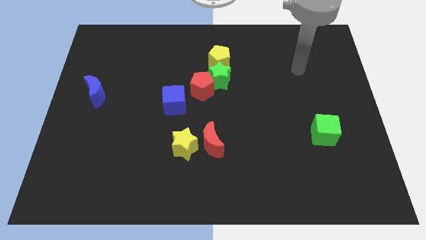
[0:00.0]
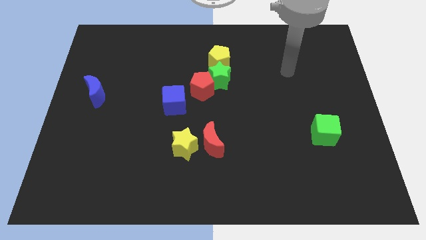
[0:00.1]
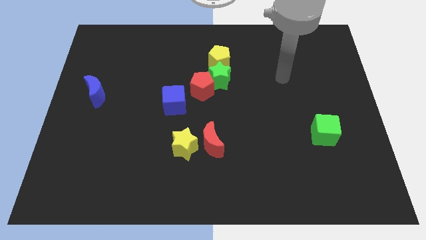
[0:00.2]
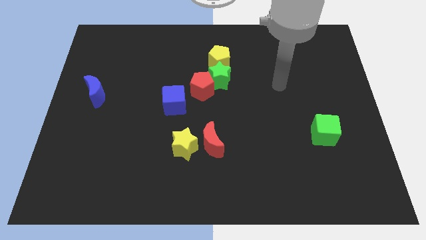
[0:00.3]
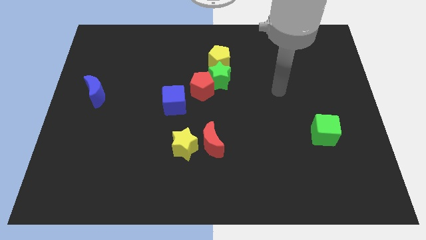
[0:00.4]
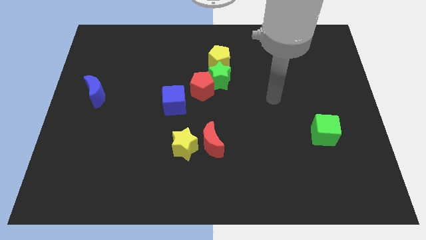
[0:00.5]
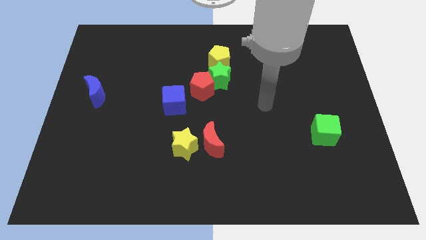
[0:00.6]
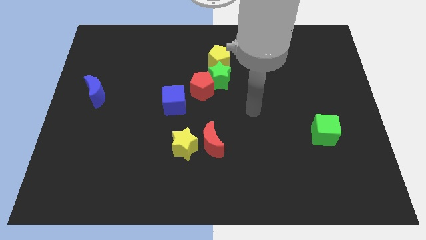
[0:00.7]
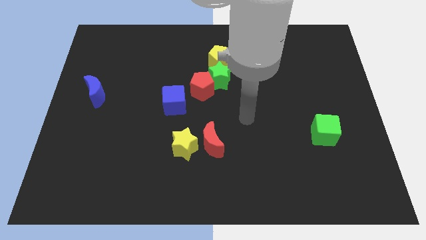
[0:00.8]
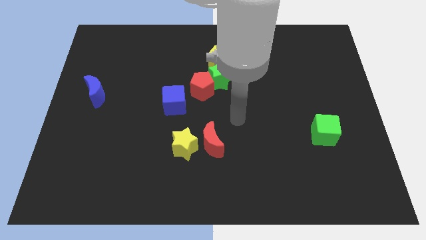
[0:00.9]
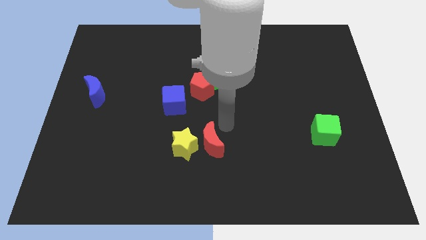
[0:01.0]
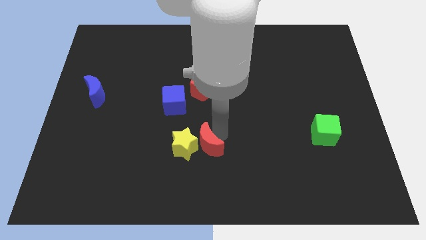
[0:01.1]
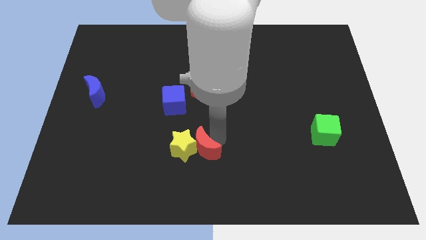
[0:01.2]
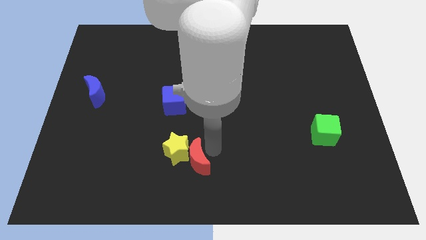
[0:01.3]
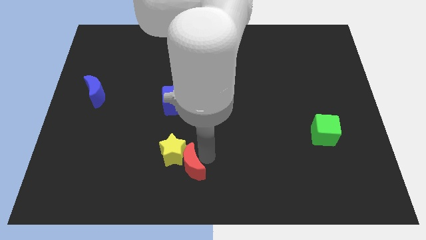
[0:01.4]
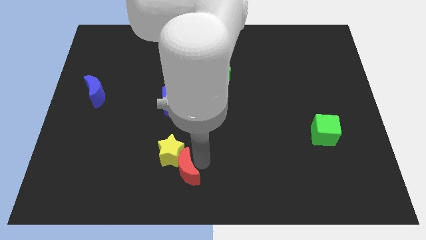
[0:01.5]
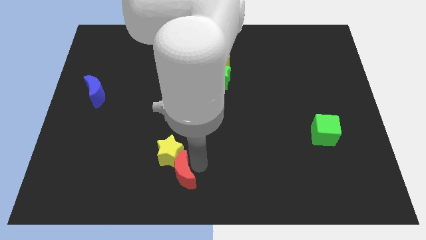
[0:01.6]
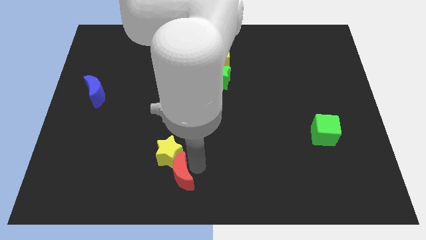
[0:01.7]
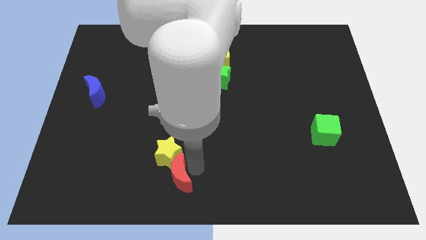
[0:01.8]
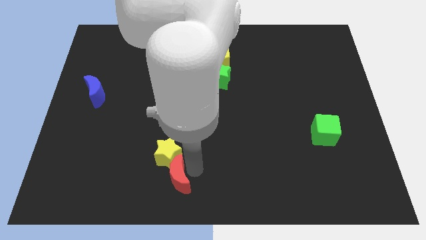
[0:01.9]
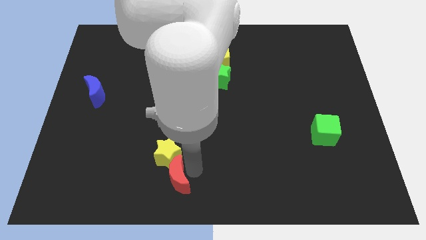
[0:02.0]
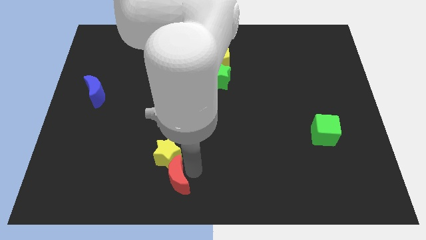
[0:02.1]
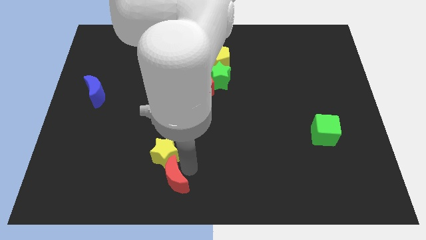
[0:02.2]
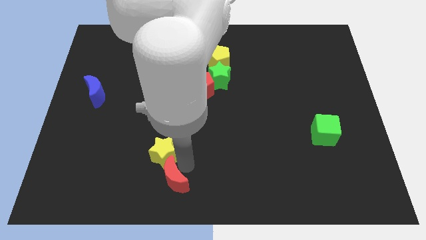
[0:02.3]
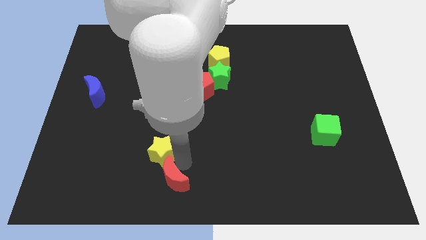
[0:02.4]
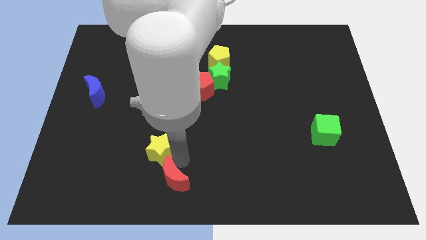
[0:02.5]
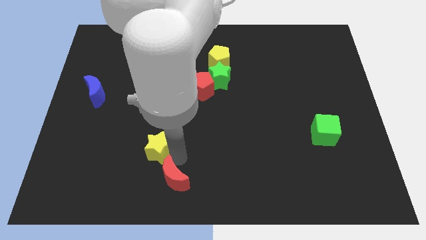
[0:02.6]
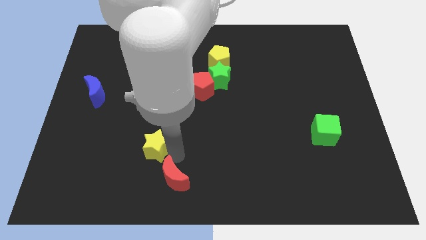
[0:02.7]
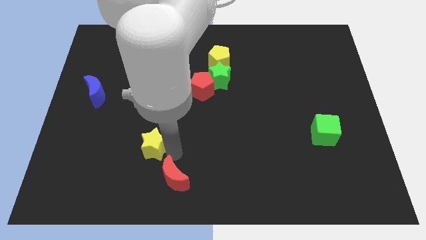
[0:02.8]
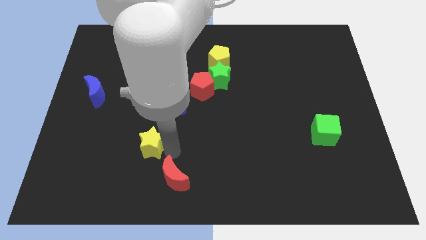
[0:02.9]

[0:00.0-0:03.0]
slide the yellow star a bit to the left

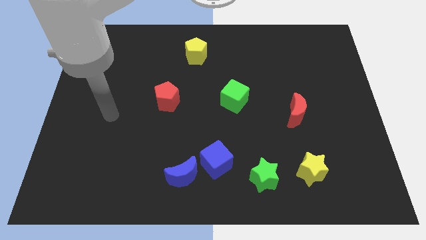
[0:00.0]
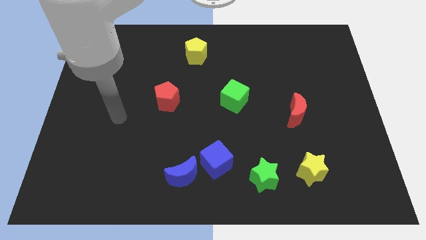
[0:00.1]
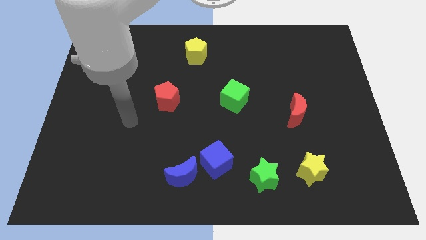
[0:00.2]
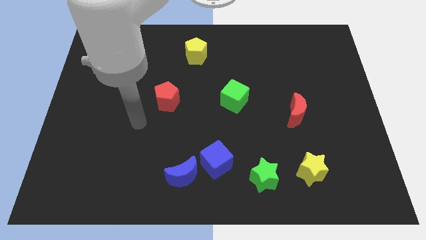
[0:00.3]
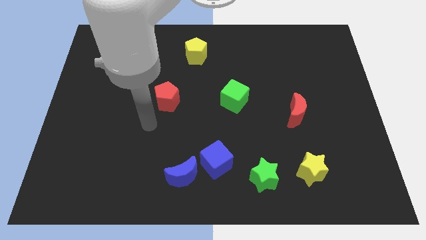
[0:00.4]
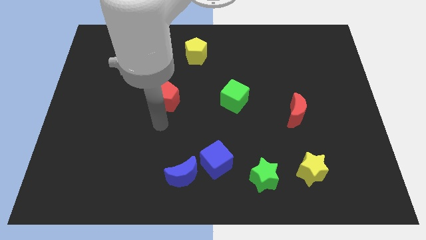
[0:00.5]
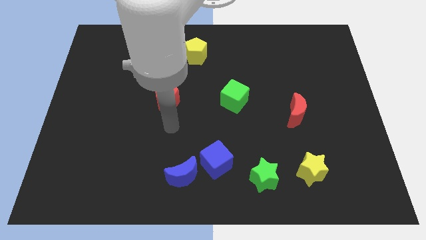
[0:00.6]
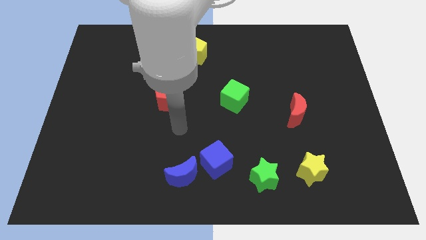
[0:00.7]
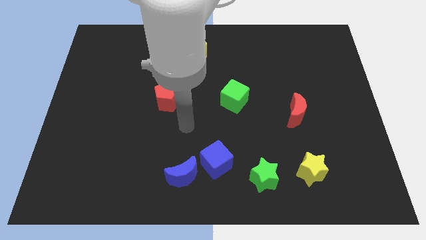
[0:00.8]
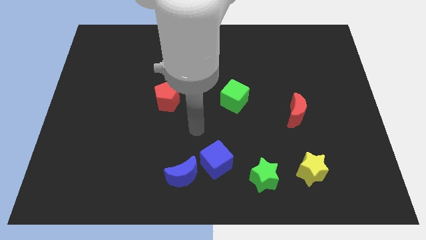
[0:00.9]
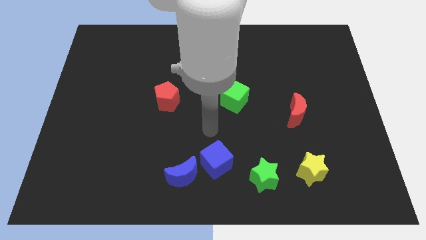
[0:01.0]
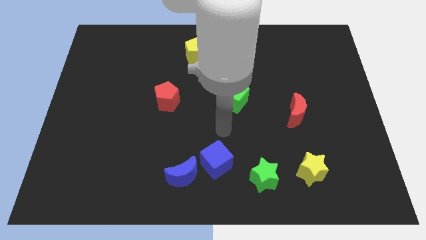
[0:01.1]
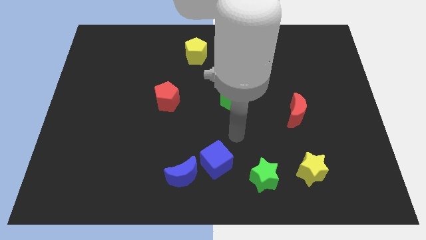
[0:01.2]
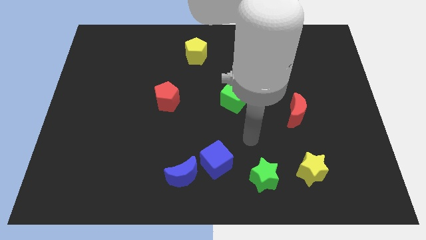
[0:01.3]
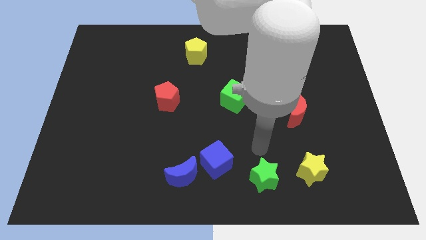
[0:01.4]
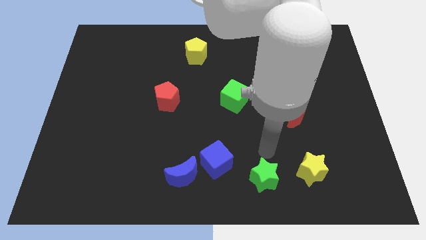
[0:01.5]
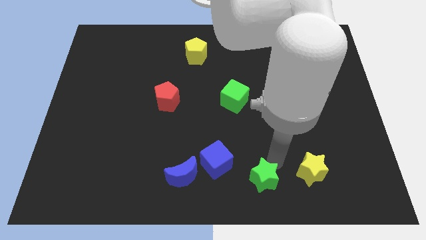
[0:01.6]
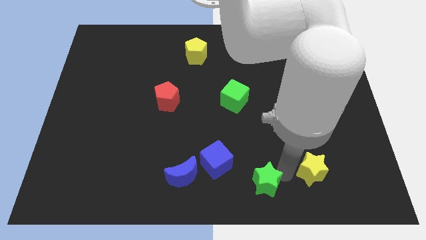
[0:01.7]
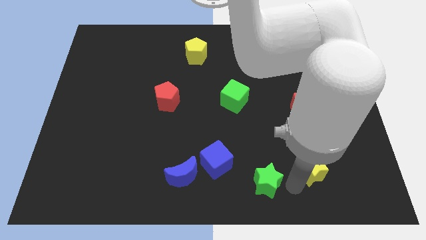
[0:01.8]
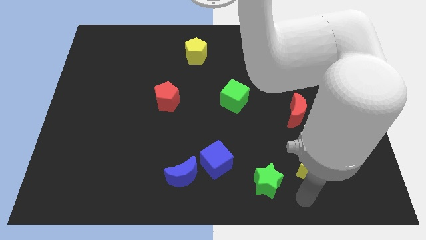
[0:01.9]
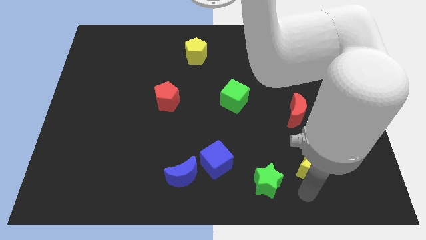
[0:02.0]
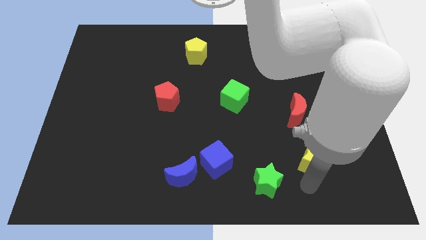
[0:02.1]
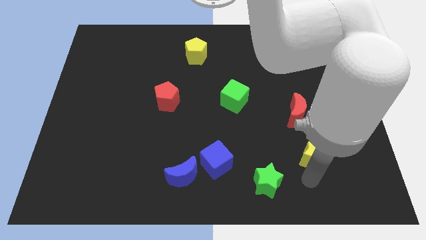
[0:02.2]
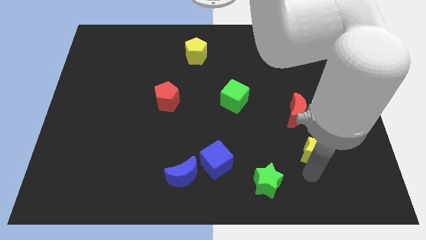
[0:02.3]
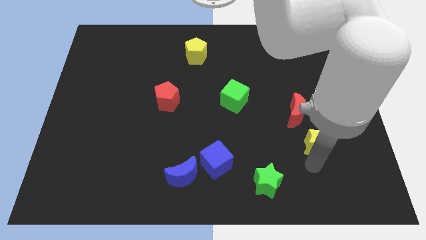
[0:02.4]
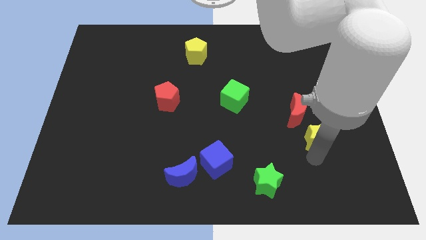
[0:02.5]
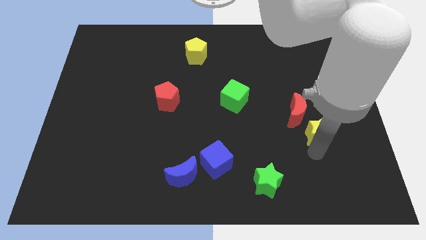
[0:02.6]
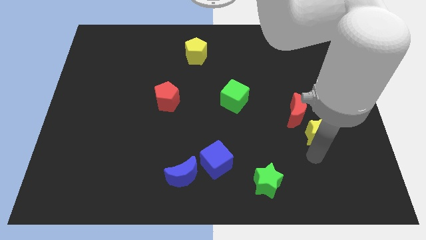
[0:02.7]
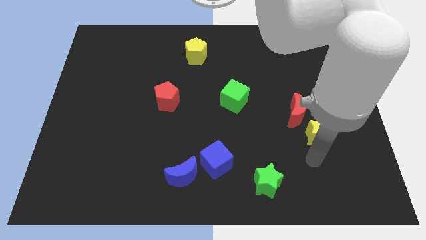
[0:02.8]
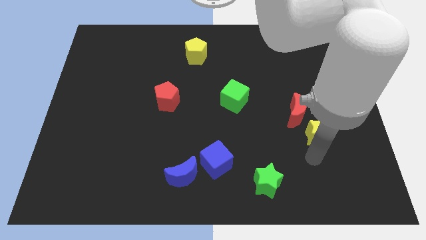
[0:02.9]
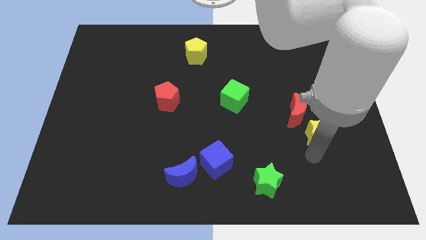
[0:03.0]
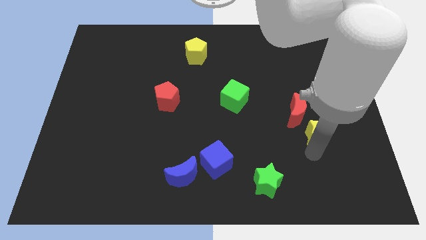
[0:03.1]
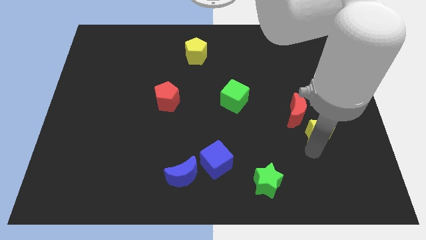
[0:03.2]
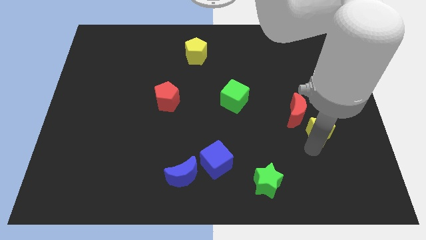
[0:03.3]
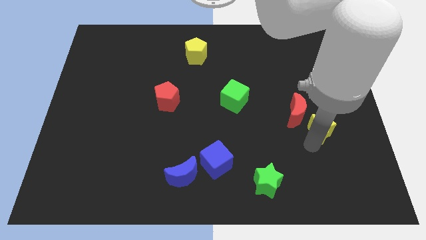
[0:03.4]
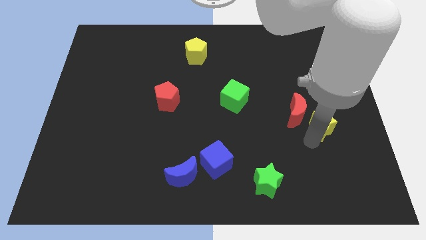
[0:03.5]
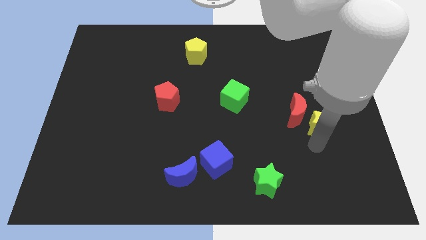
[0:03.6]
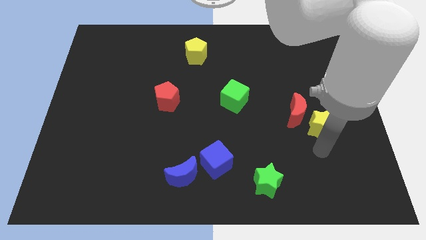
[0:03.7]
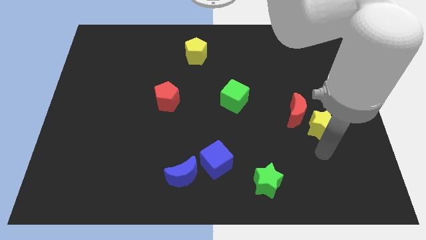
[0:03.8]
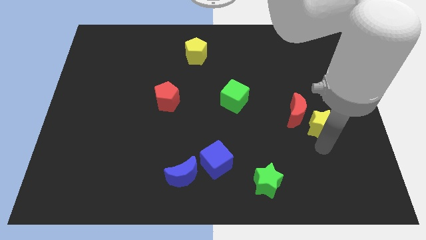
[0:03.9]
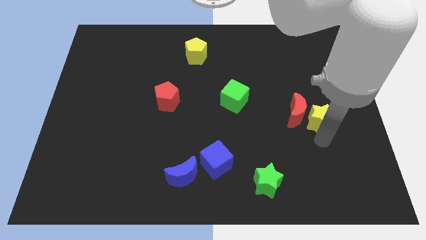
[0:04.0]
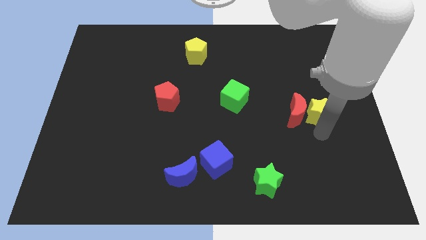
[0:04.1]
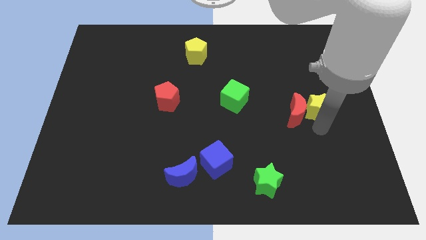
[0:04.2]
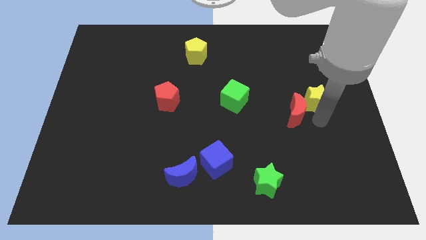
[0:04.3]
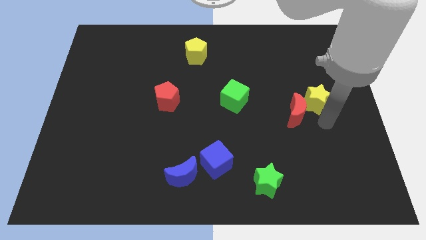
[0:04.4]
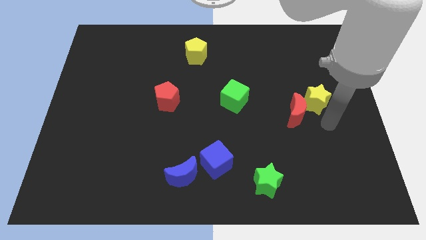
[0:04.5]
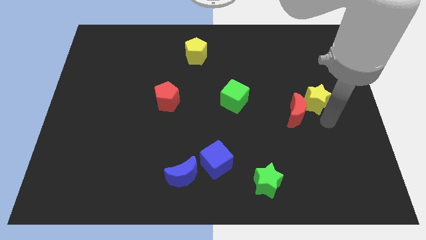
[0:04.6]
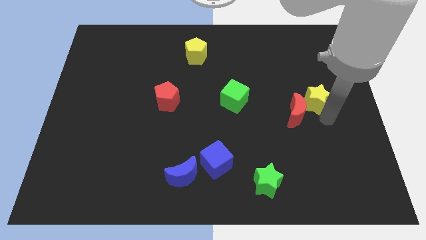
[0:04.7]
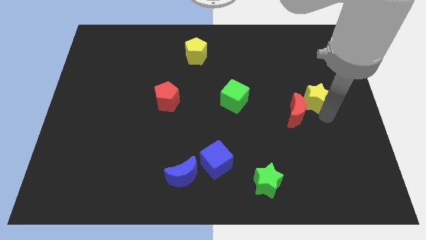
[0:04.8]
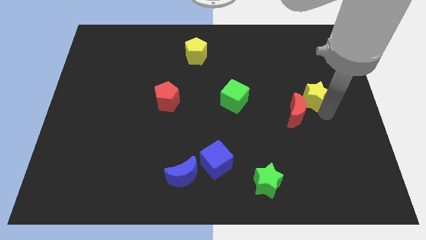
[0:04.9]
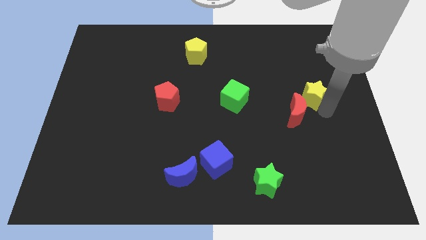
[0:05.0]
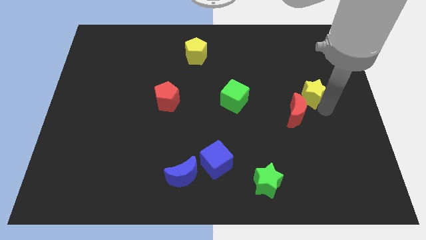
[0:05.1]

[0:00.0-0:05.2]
slide the yellow star up

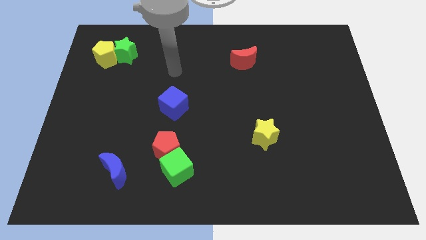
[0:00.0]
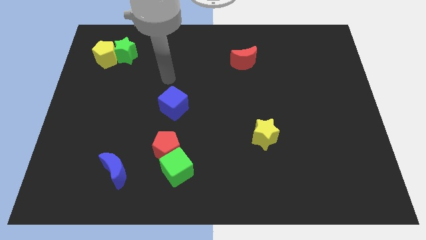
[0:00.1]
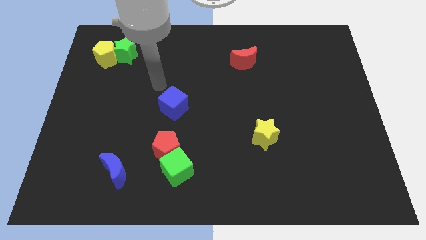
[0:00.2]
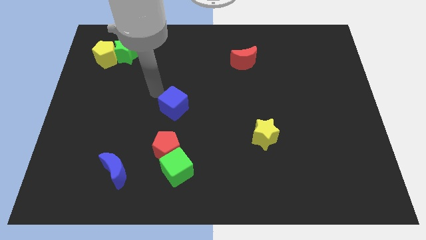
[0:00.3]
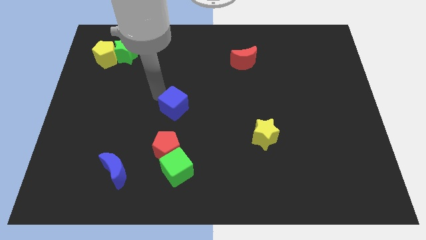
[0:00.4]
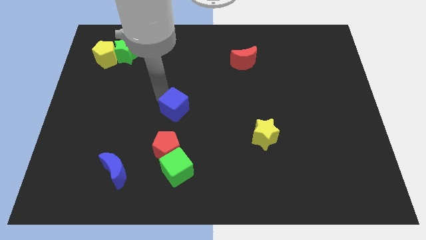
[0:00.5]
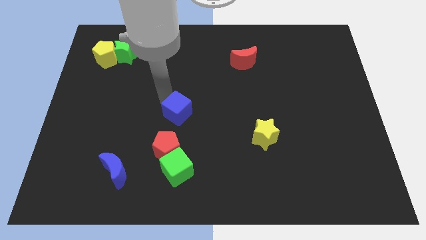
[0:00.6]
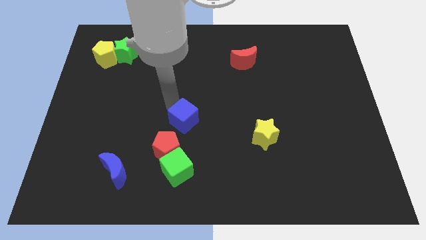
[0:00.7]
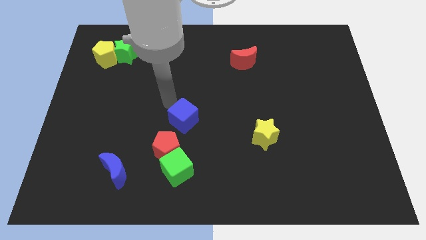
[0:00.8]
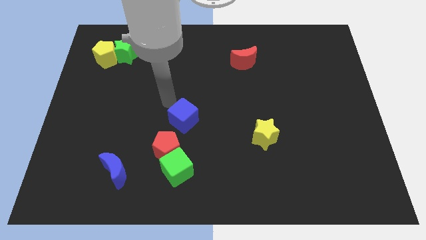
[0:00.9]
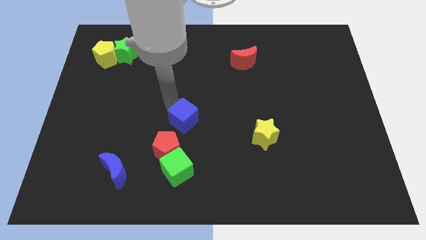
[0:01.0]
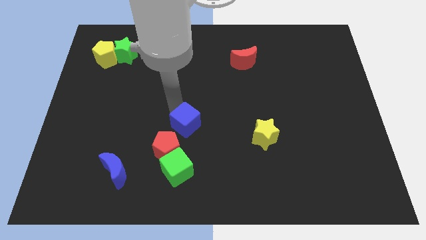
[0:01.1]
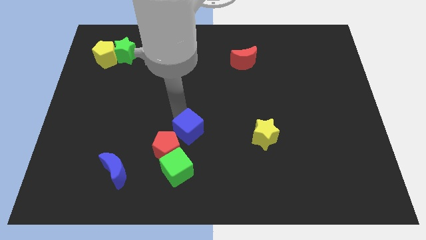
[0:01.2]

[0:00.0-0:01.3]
slide the blue cube downwards and to the right a bit
